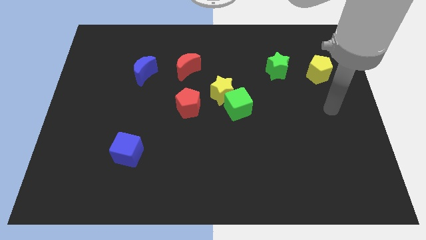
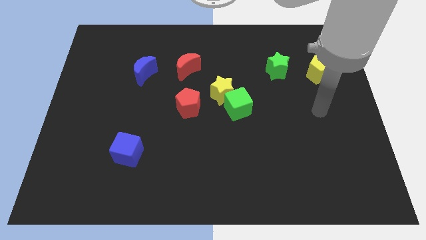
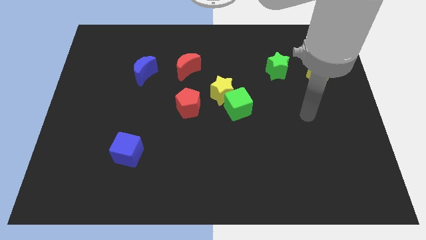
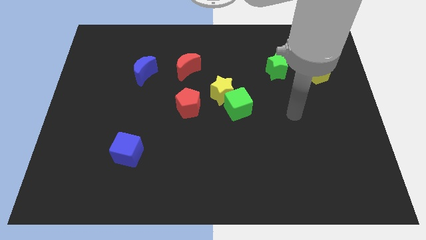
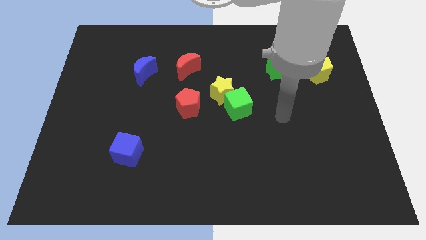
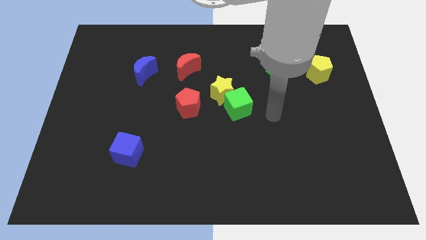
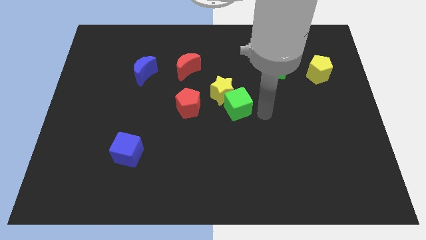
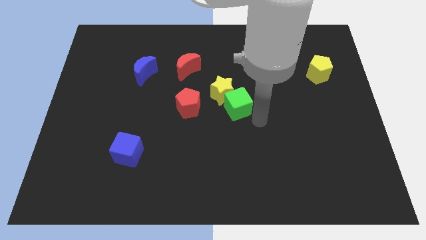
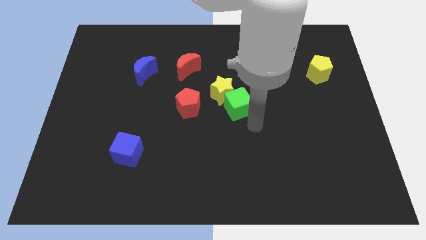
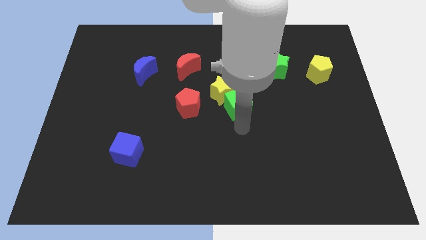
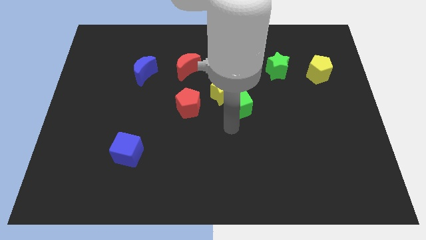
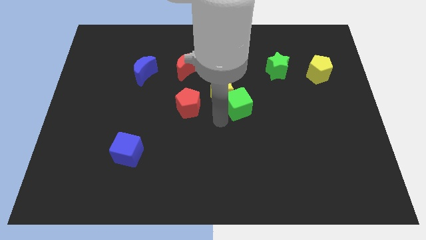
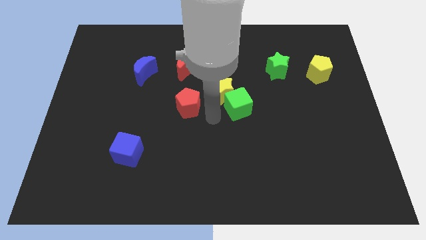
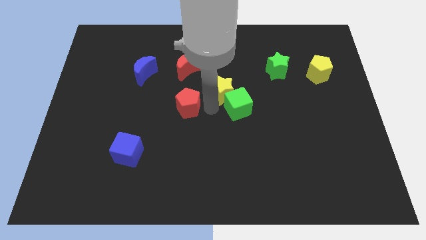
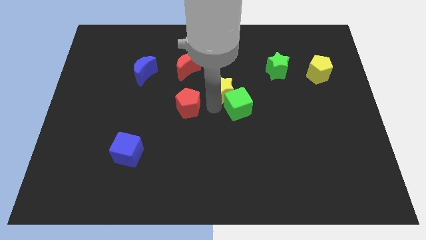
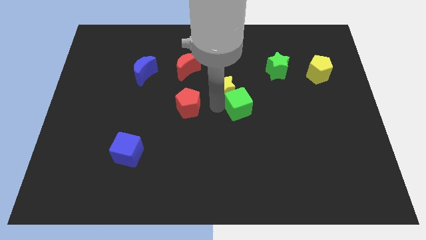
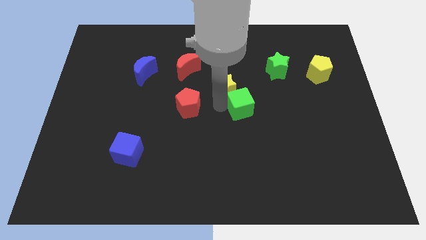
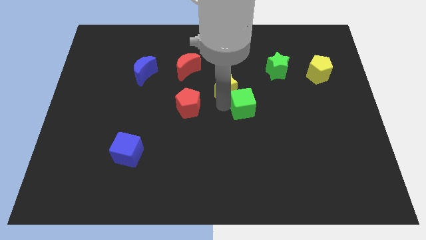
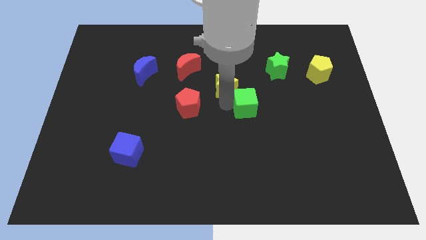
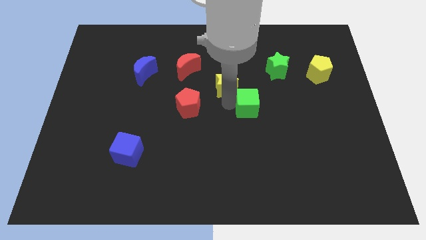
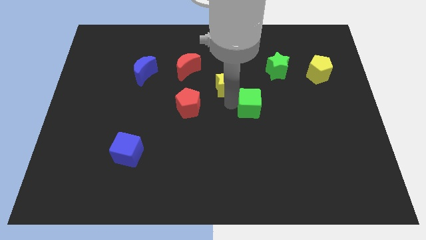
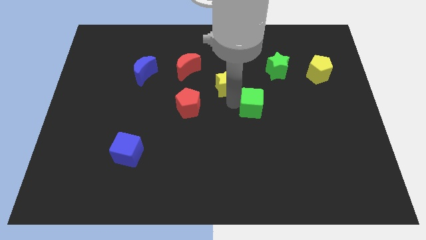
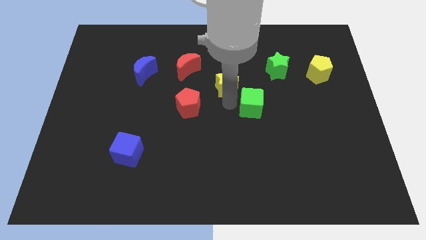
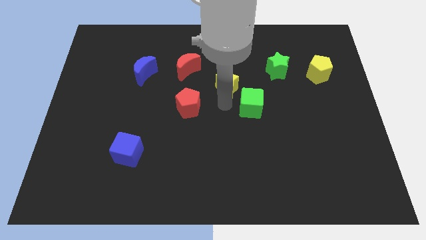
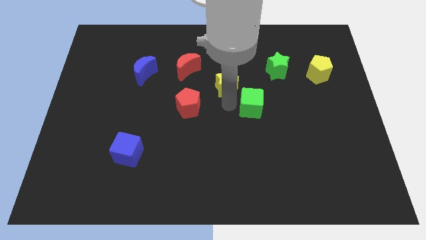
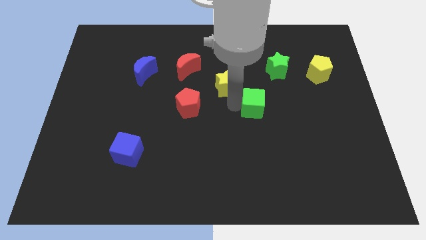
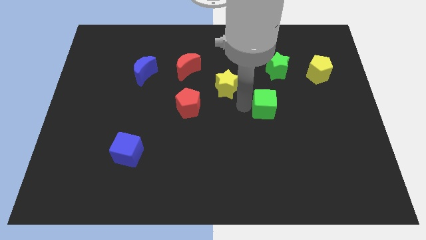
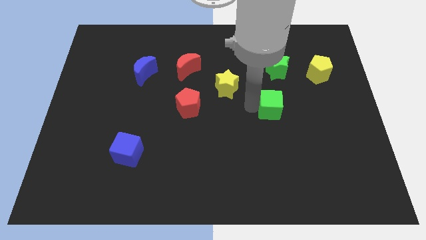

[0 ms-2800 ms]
slightly slide the green cube to the right

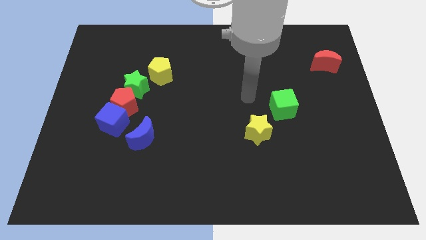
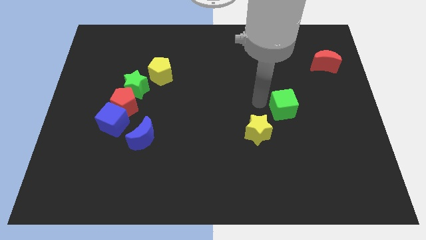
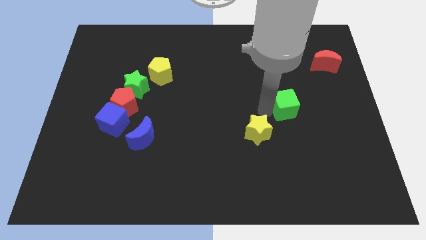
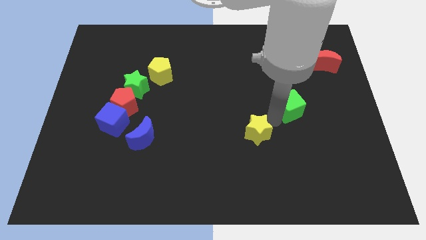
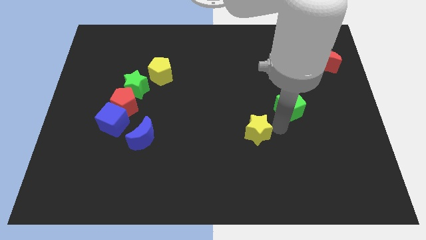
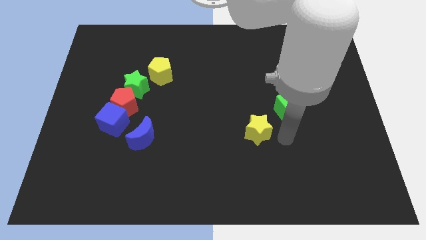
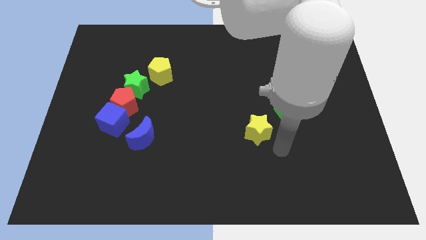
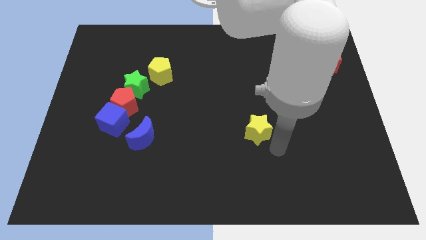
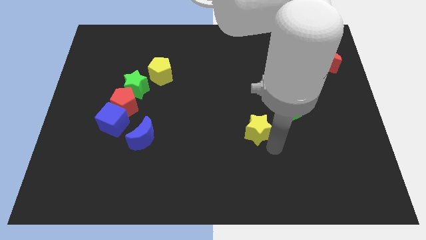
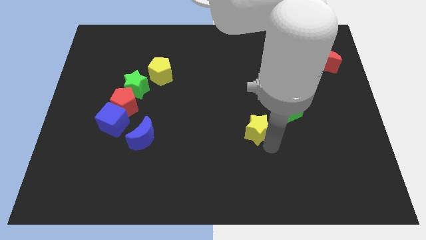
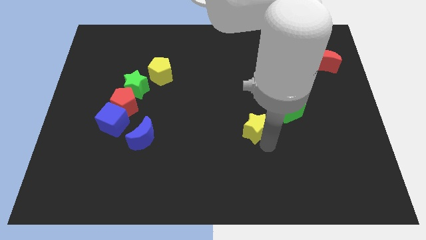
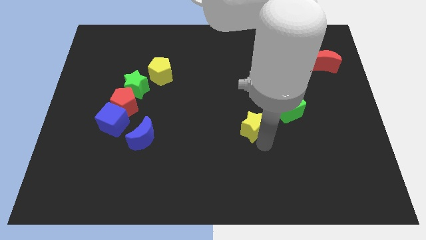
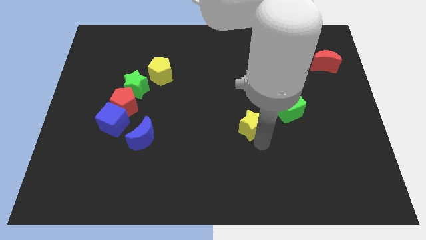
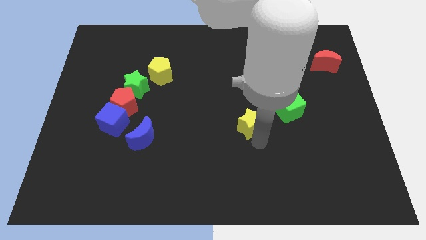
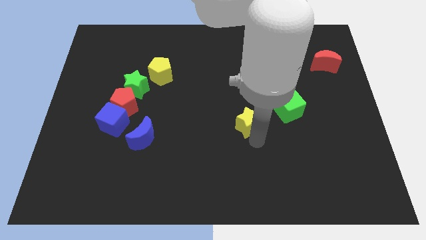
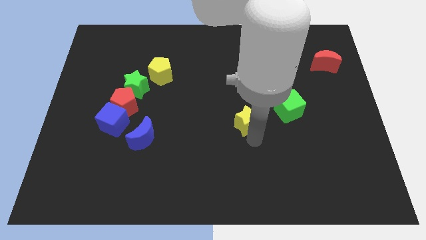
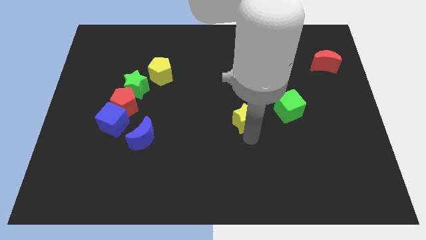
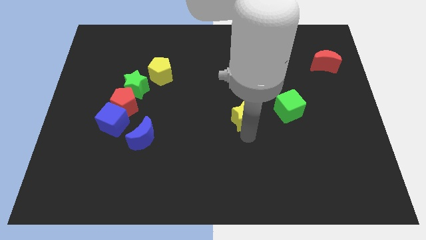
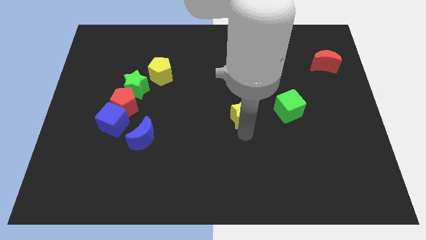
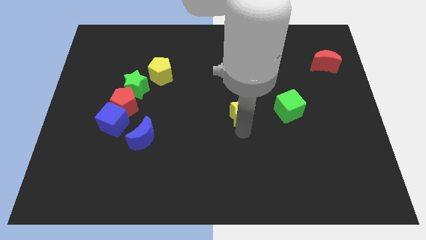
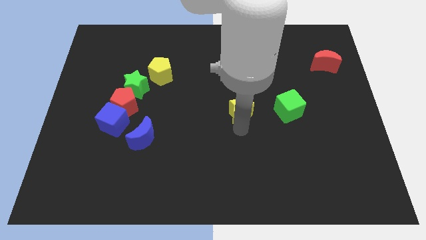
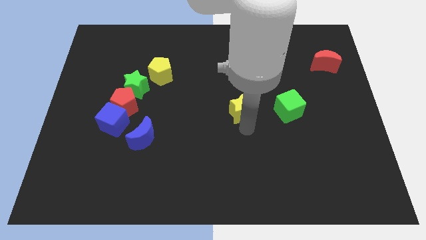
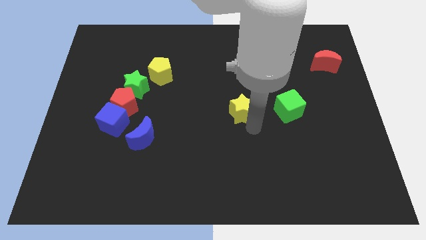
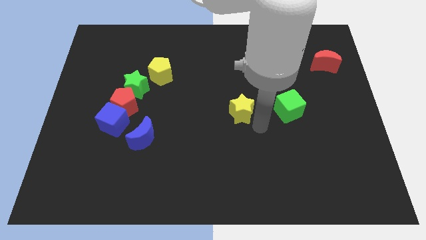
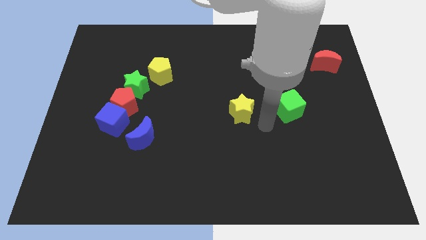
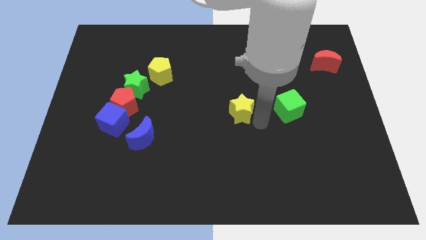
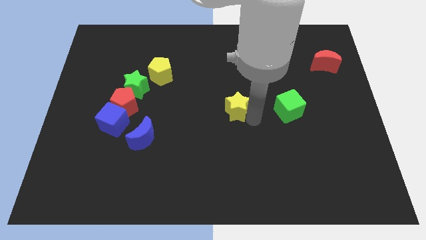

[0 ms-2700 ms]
slightly slide the yellow star up and then left

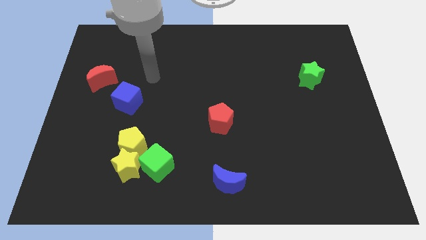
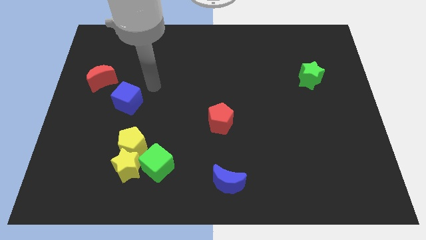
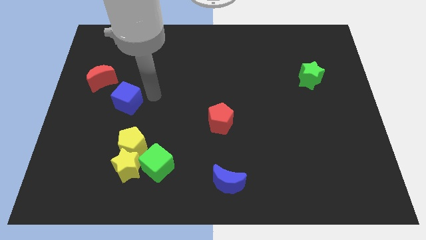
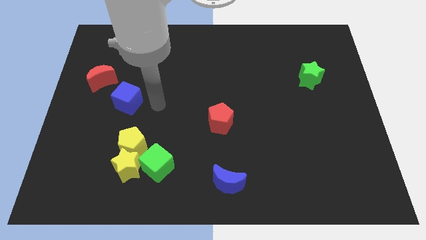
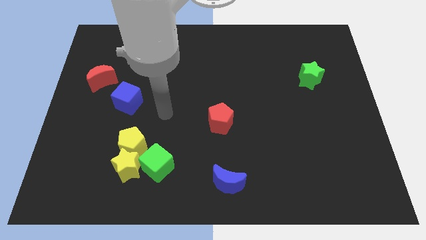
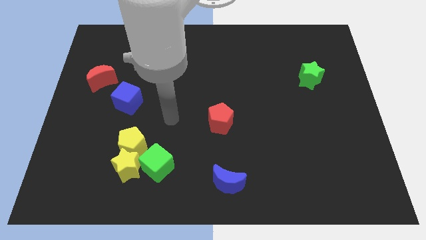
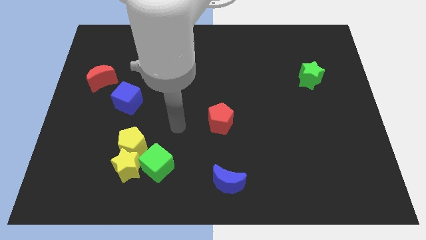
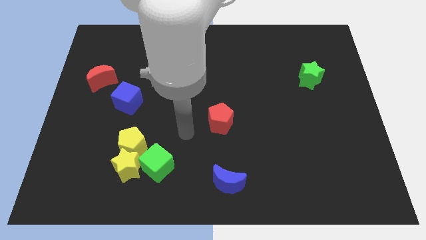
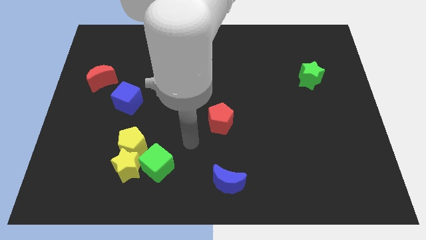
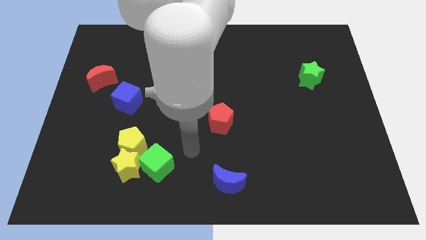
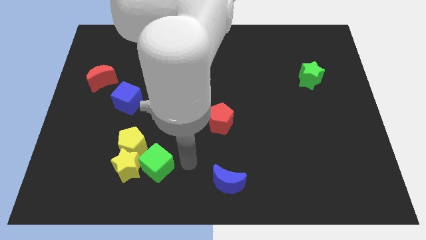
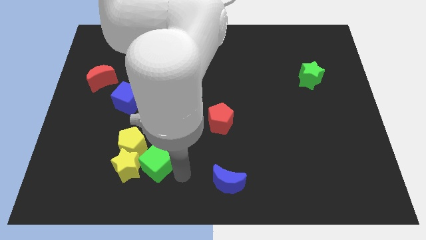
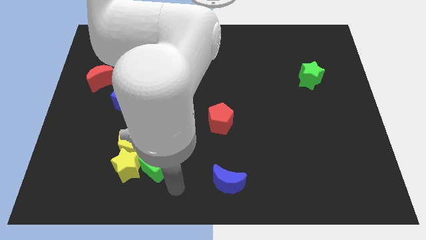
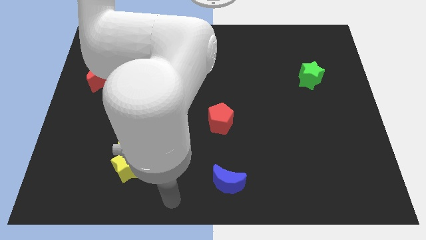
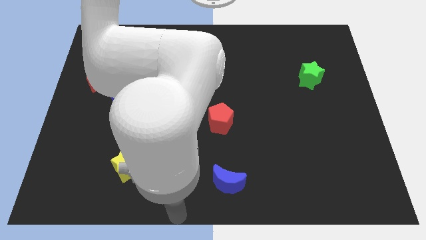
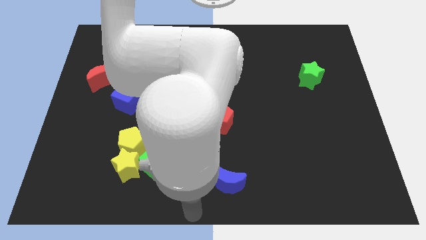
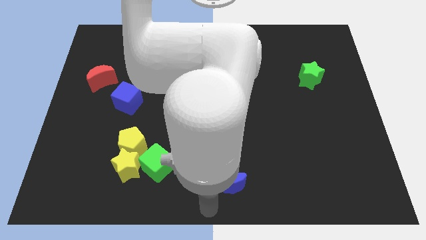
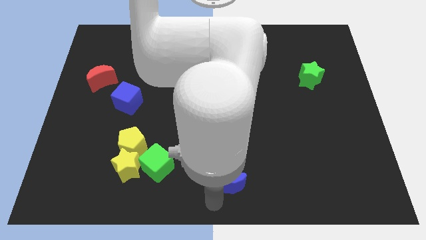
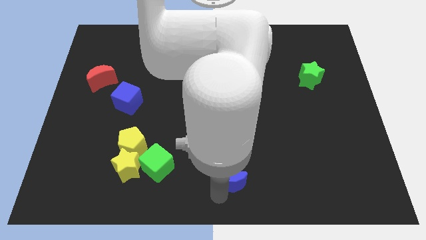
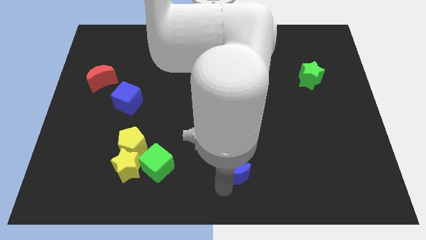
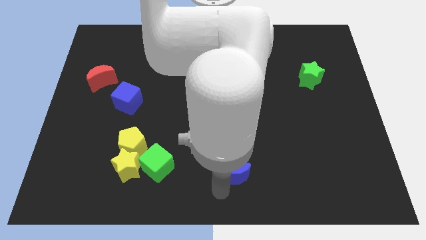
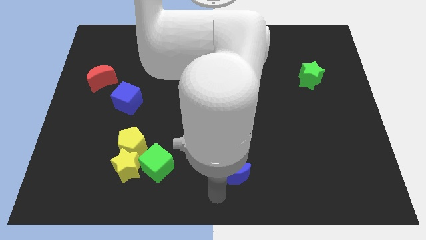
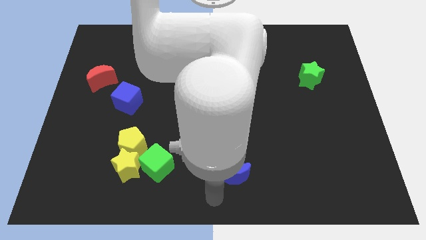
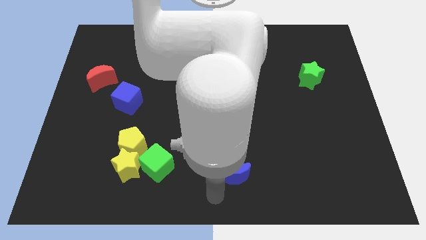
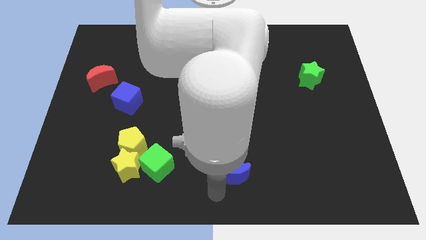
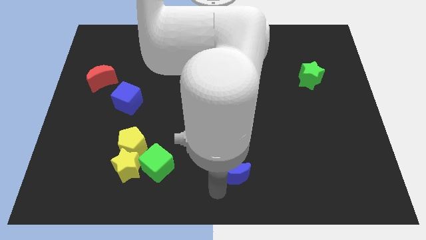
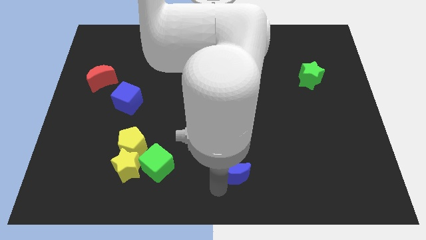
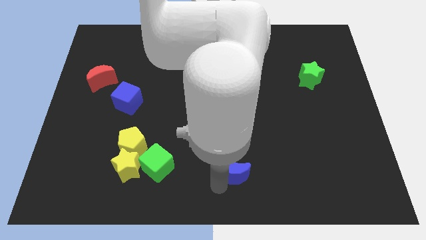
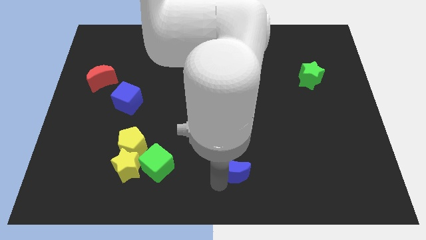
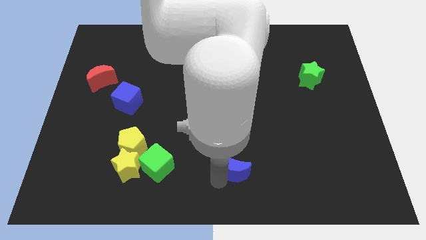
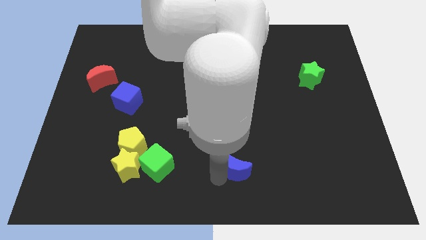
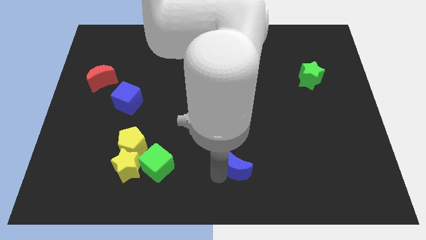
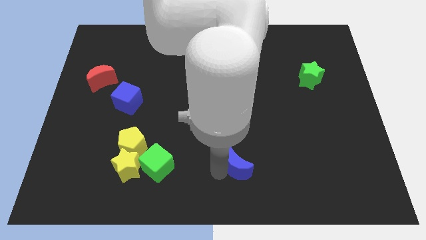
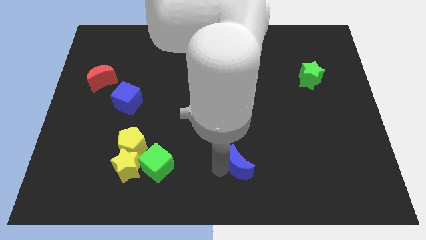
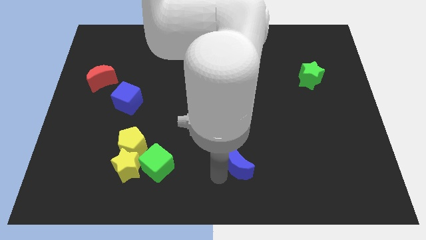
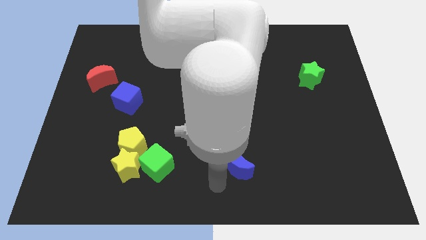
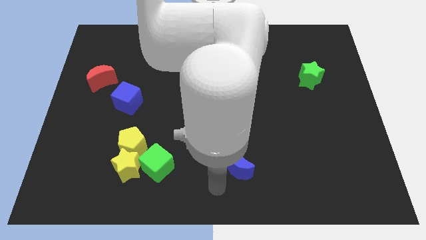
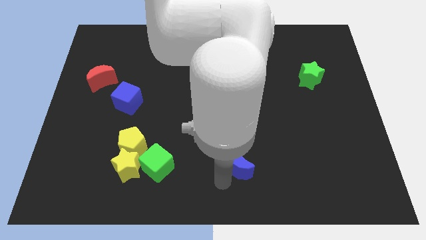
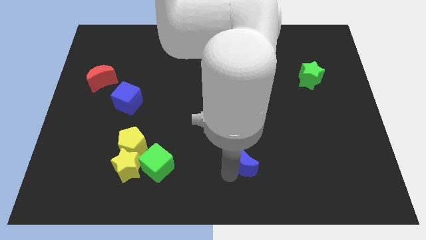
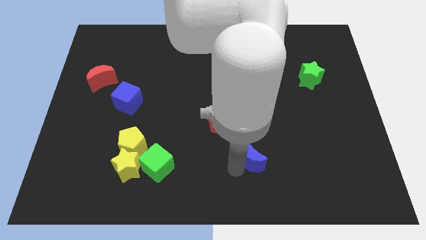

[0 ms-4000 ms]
move the blue moon upwards and then to the right a little
